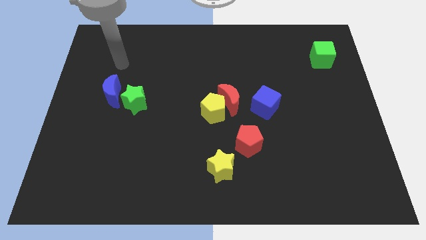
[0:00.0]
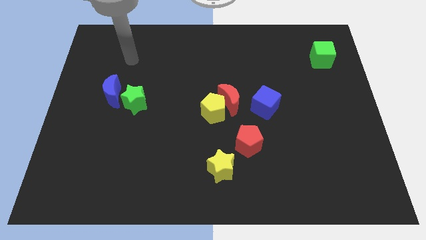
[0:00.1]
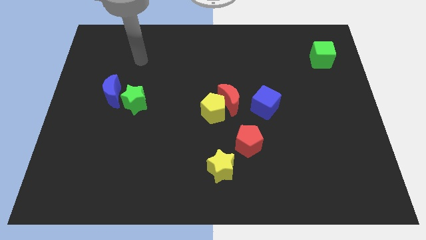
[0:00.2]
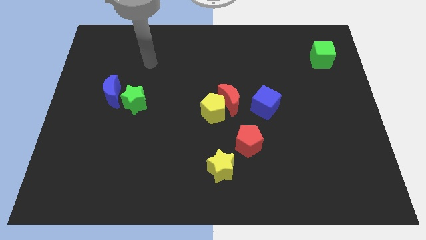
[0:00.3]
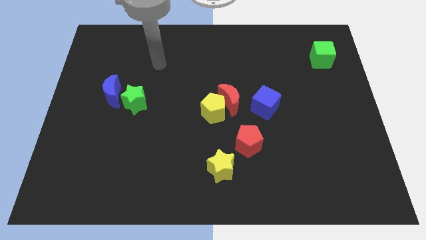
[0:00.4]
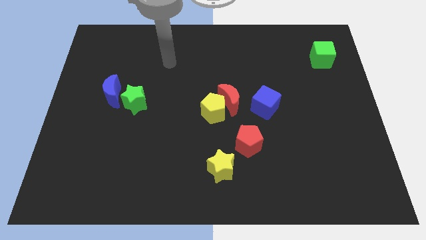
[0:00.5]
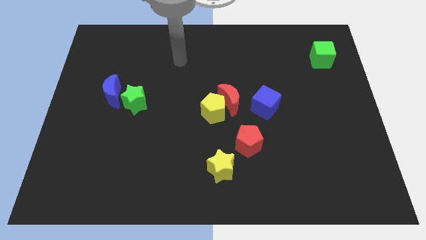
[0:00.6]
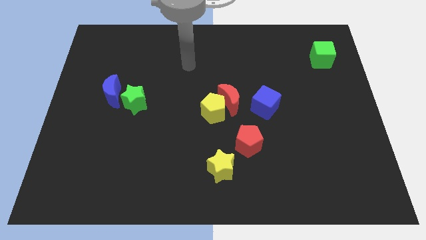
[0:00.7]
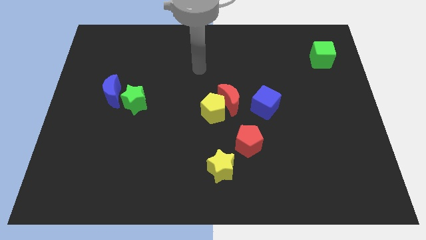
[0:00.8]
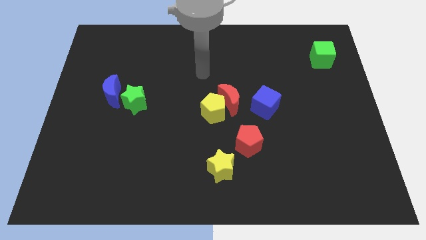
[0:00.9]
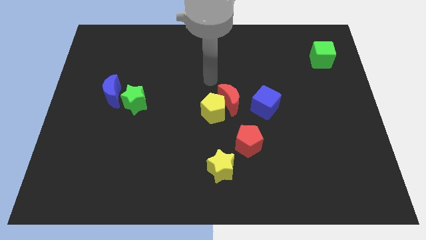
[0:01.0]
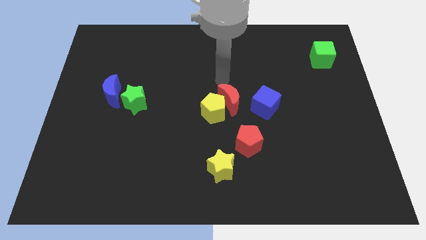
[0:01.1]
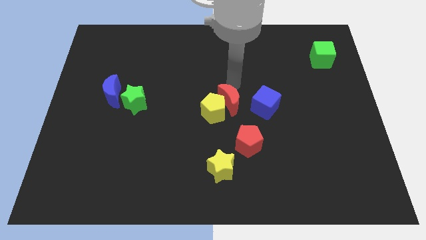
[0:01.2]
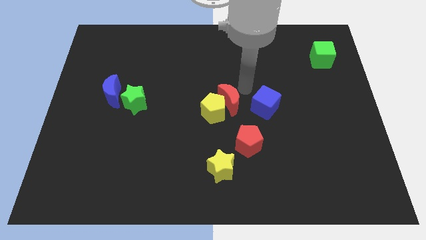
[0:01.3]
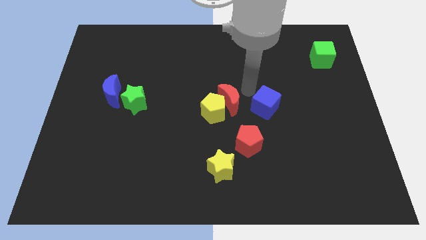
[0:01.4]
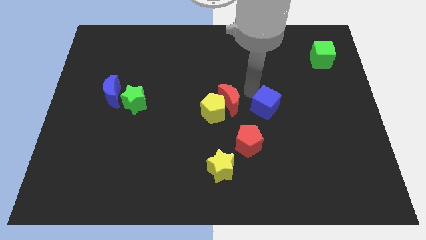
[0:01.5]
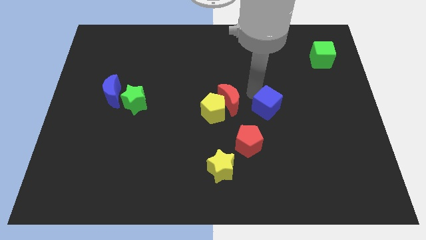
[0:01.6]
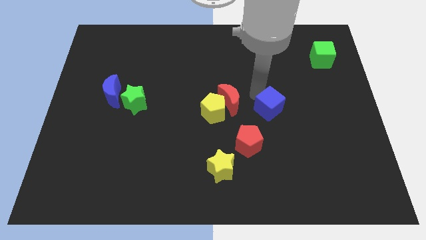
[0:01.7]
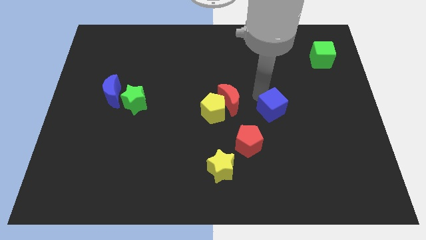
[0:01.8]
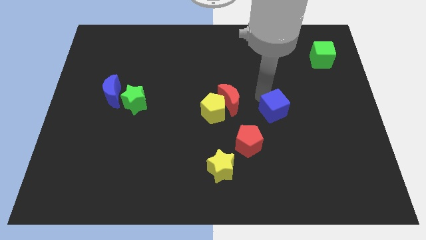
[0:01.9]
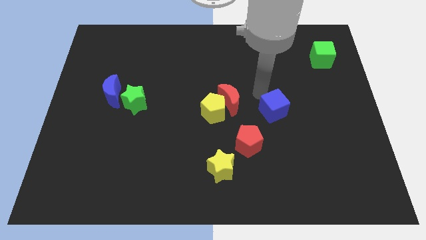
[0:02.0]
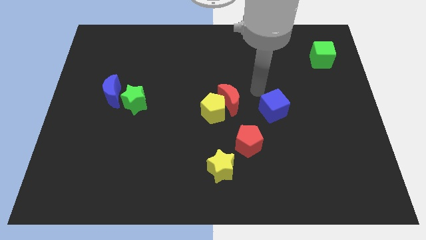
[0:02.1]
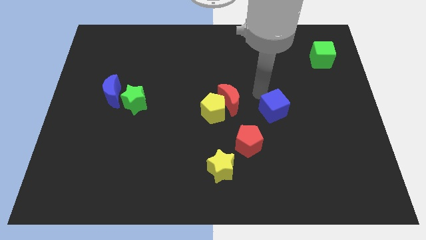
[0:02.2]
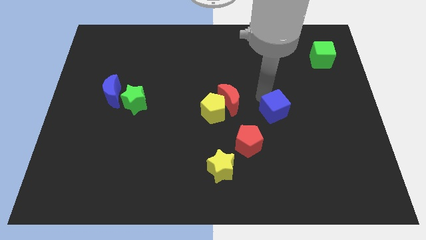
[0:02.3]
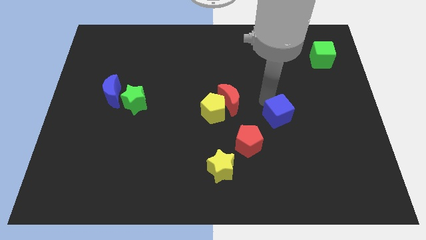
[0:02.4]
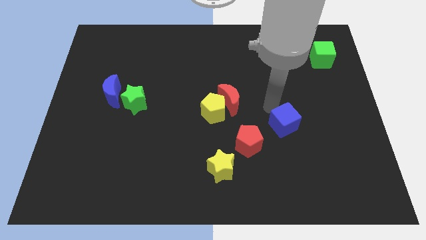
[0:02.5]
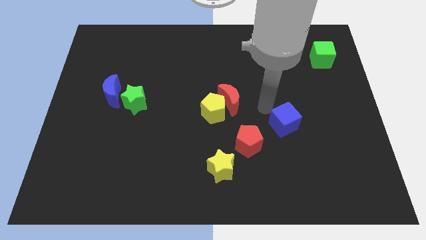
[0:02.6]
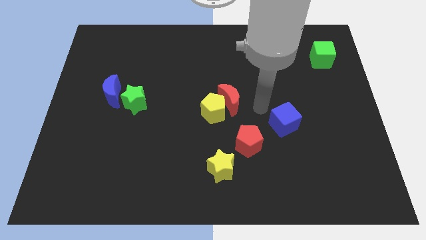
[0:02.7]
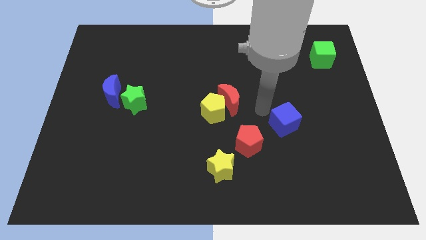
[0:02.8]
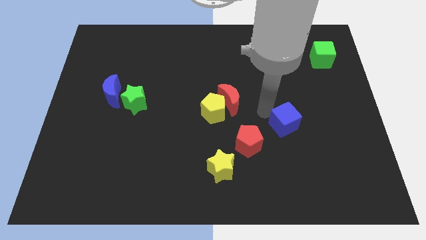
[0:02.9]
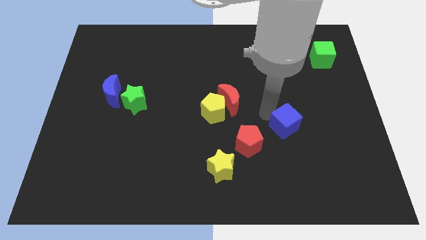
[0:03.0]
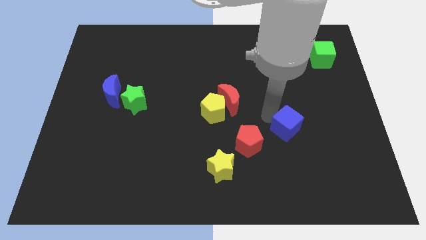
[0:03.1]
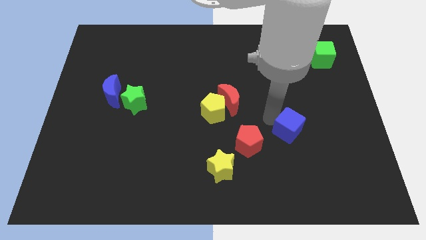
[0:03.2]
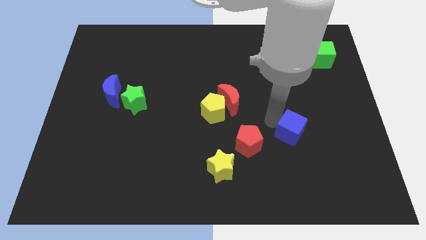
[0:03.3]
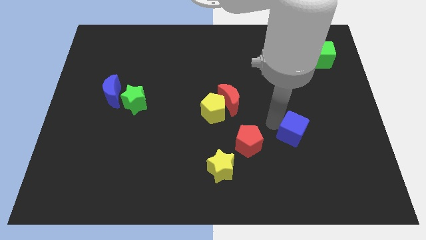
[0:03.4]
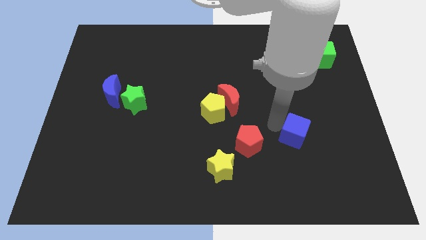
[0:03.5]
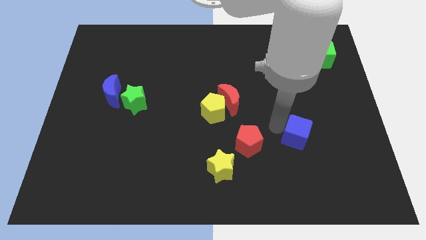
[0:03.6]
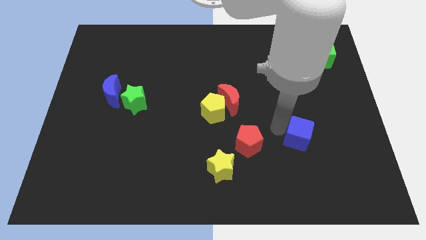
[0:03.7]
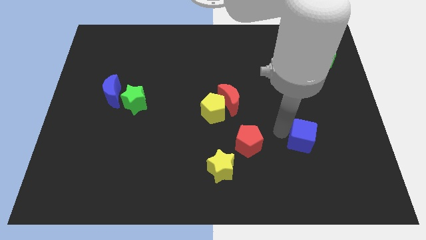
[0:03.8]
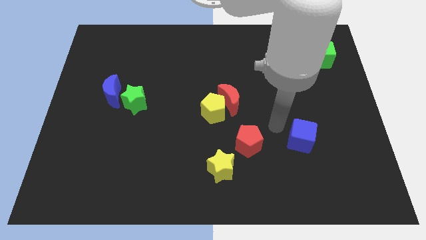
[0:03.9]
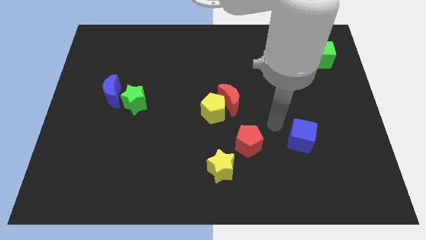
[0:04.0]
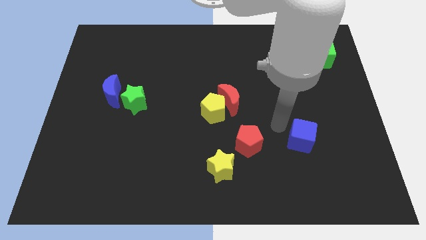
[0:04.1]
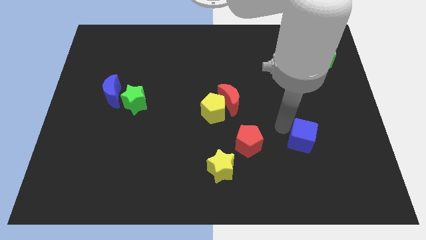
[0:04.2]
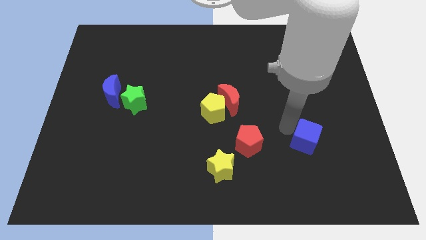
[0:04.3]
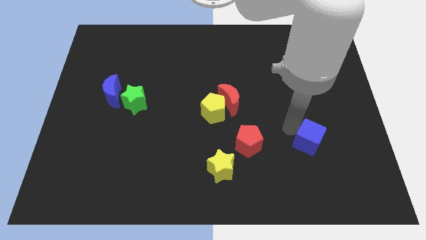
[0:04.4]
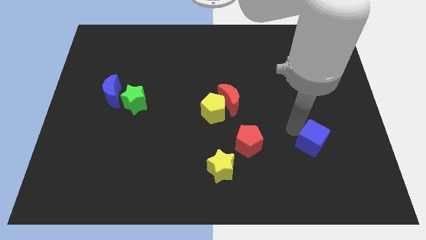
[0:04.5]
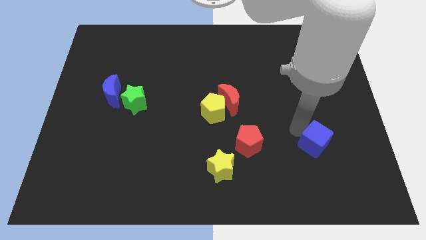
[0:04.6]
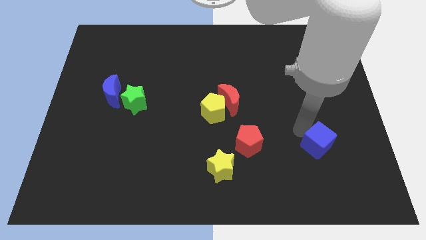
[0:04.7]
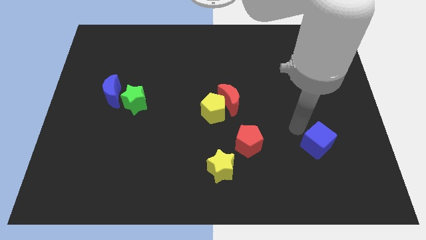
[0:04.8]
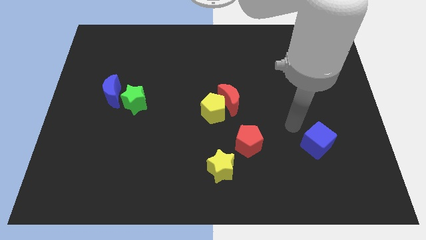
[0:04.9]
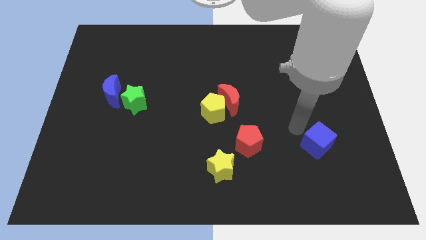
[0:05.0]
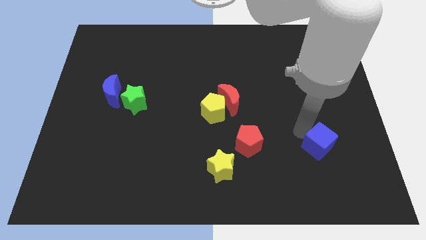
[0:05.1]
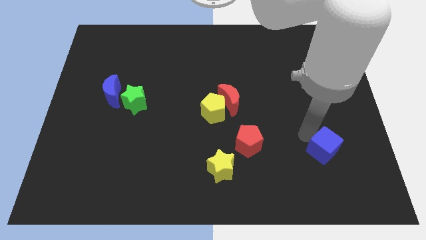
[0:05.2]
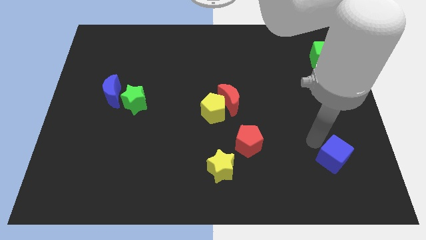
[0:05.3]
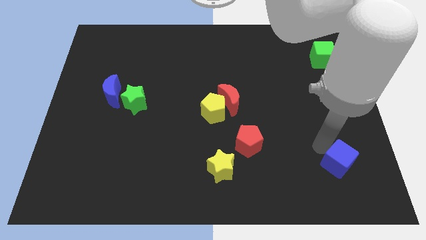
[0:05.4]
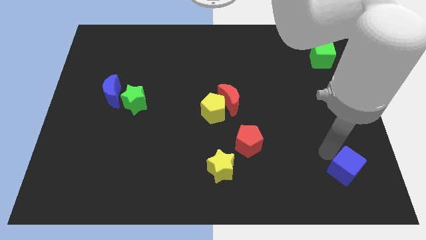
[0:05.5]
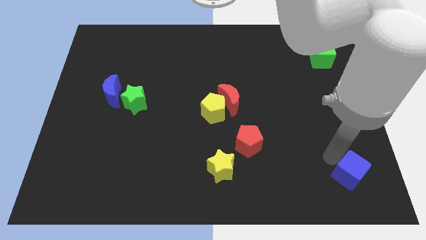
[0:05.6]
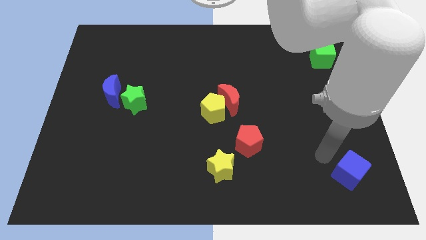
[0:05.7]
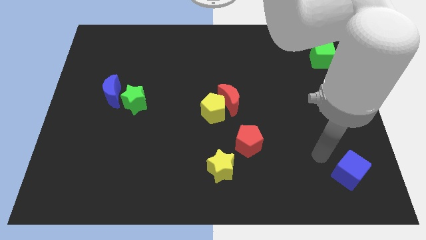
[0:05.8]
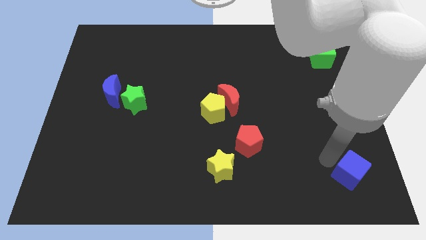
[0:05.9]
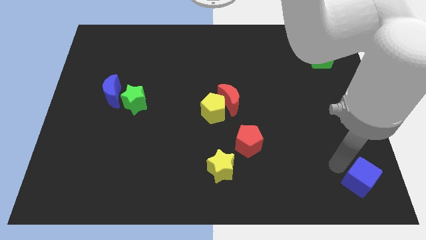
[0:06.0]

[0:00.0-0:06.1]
move the blue cube to the bottom right
